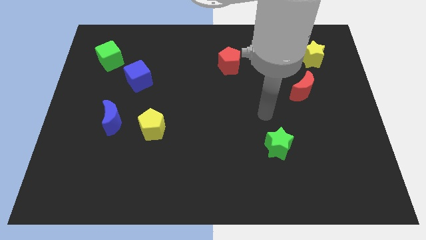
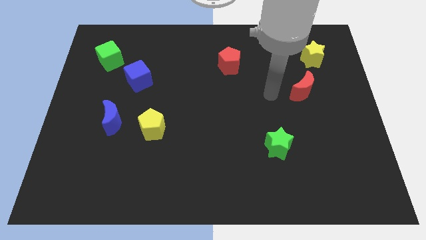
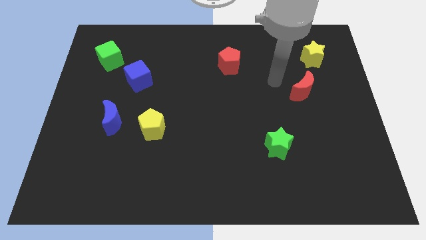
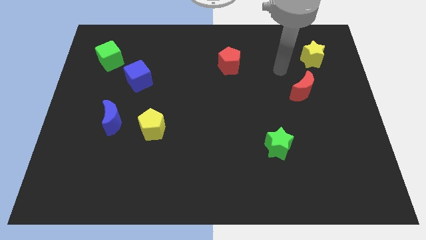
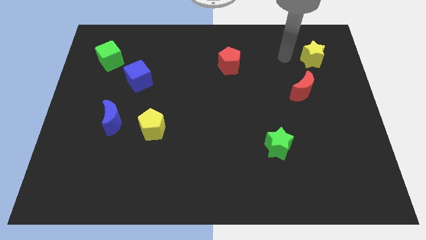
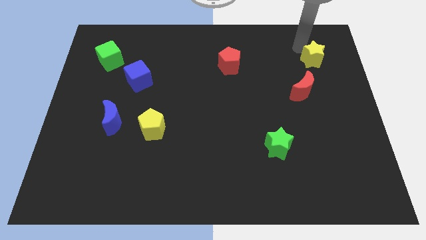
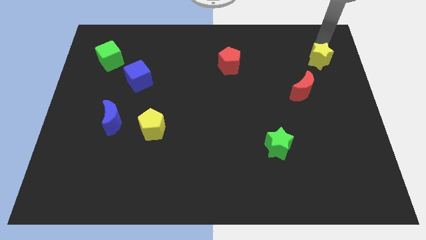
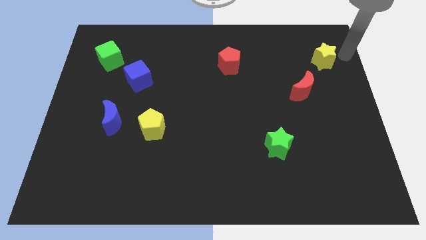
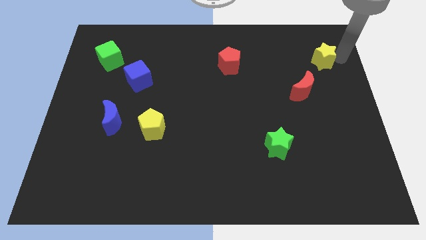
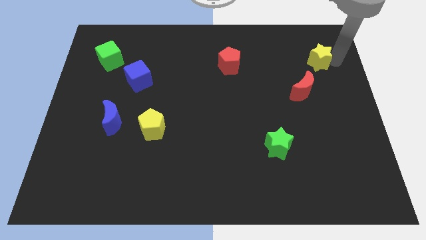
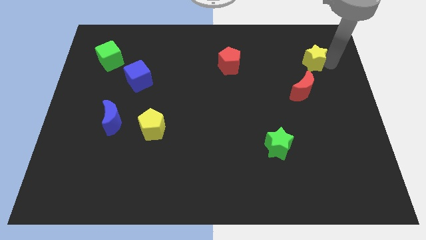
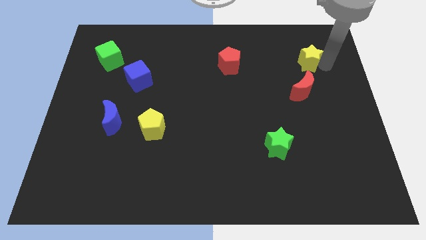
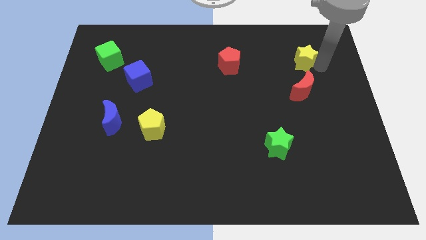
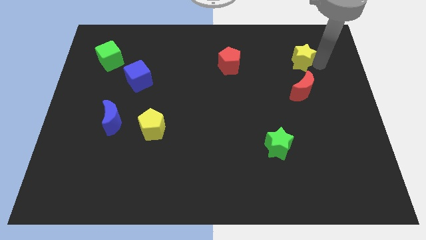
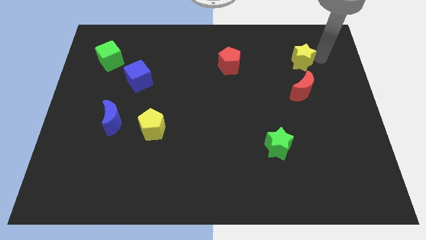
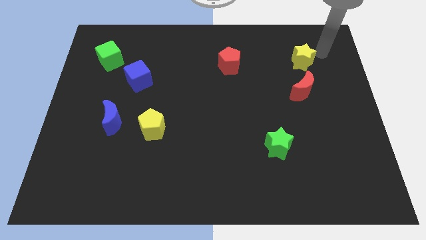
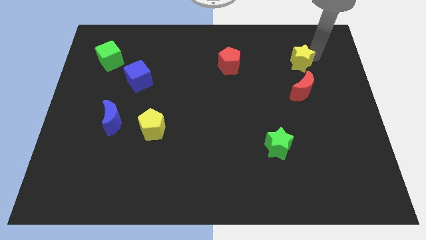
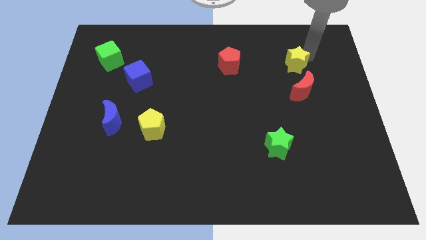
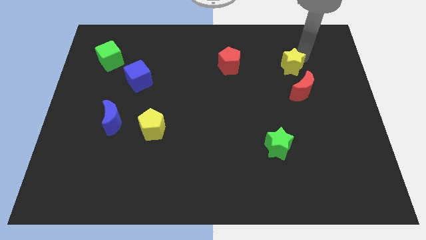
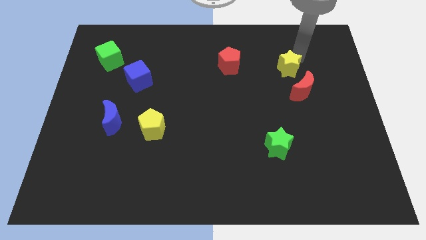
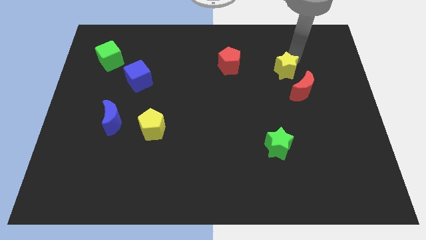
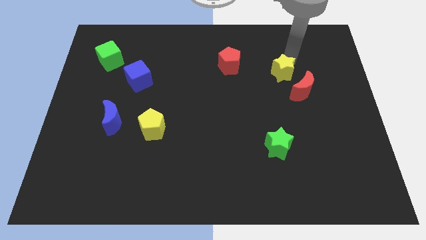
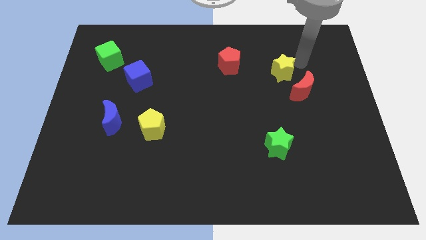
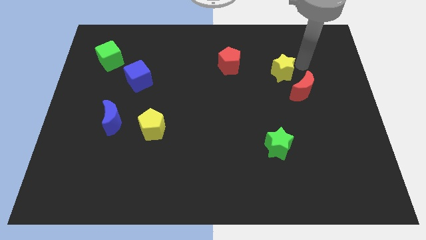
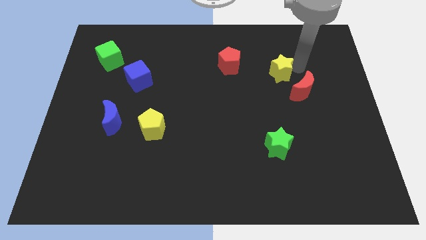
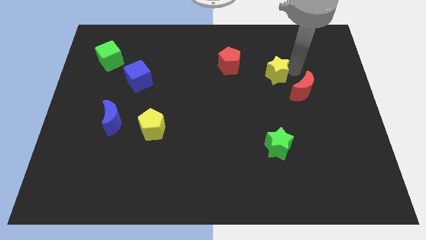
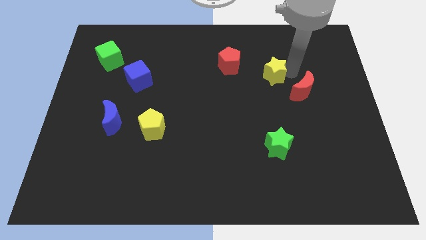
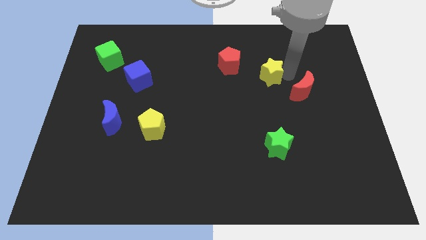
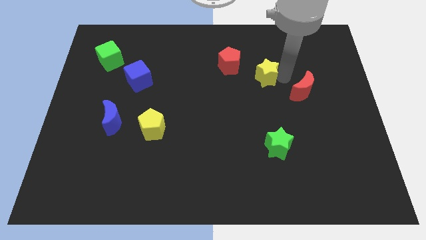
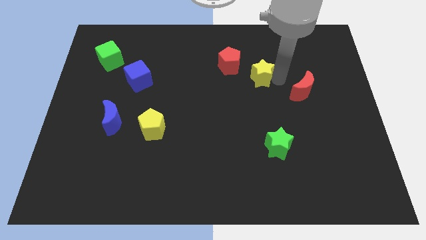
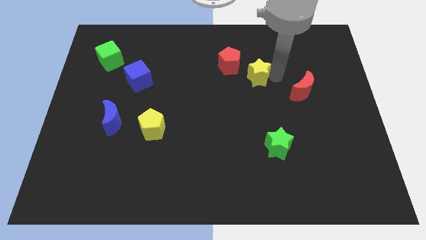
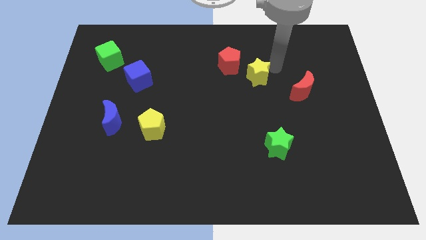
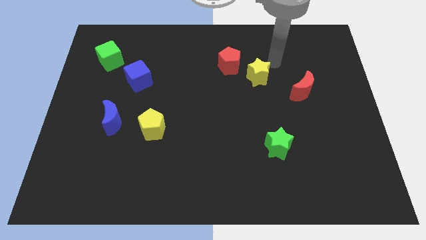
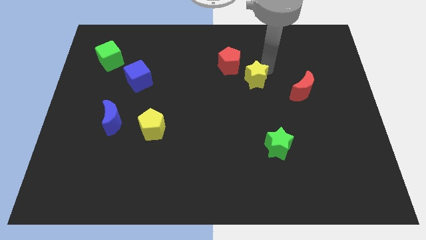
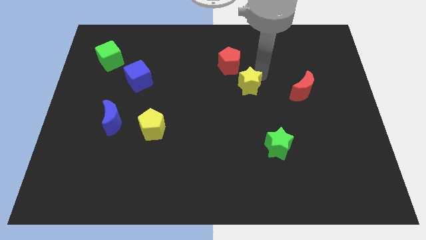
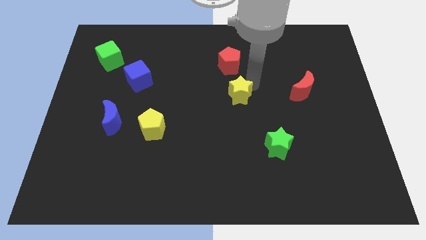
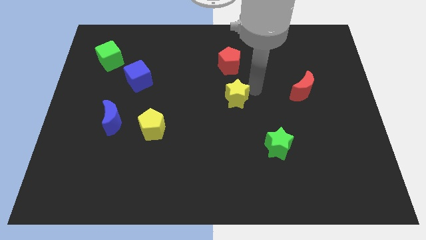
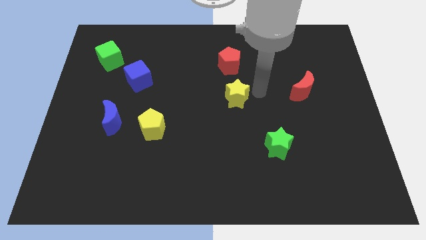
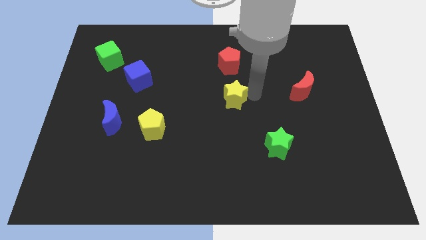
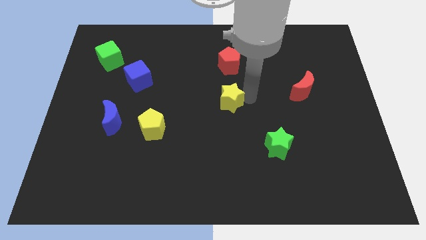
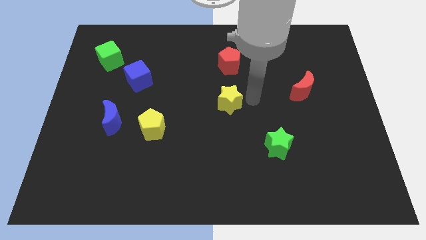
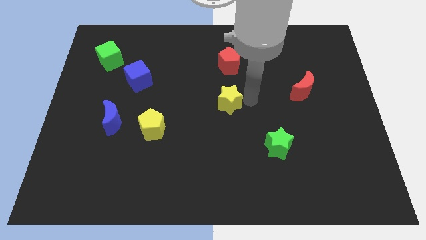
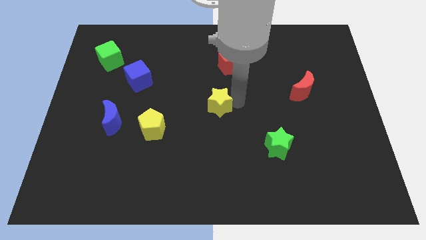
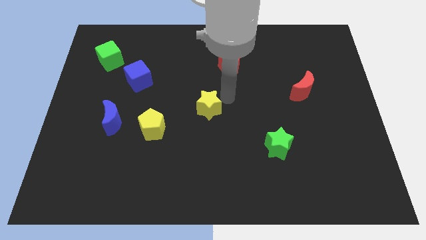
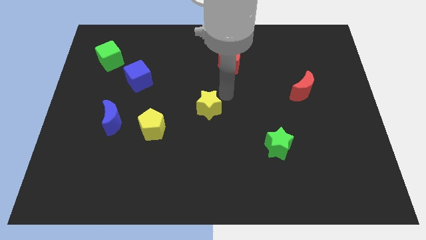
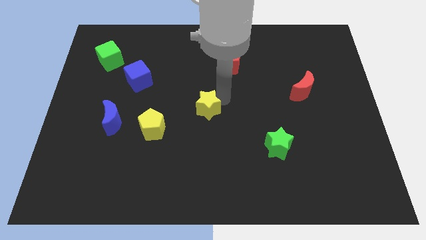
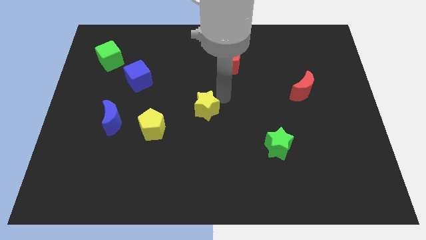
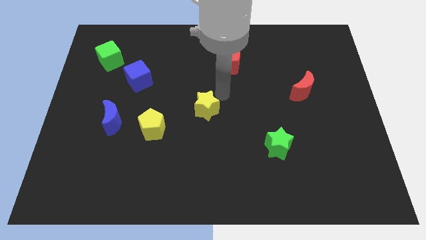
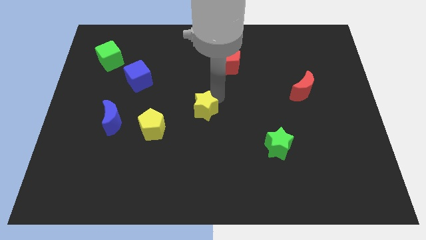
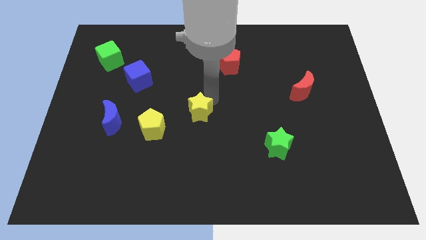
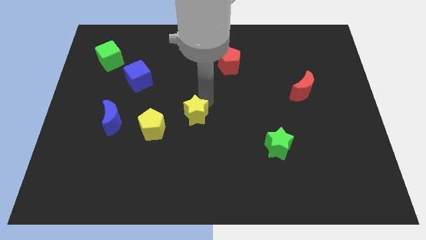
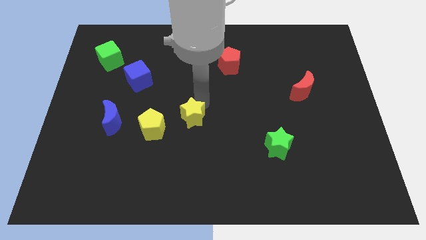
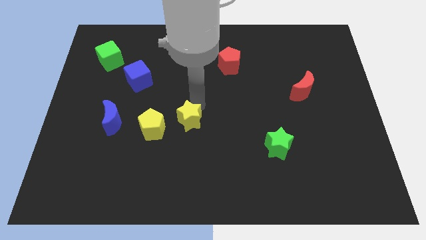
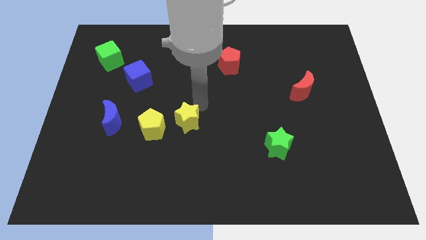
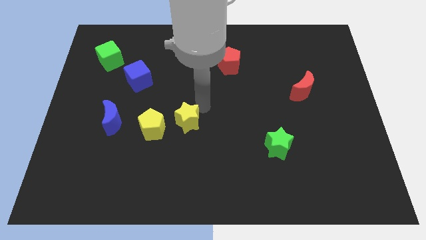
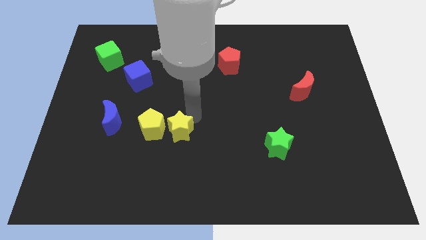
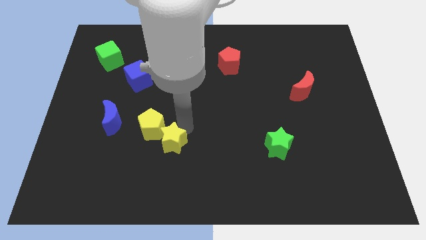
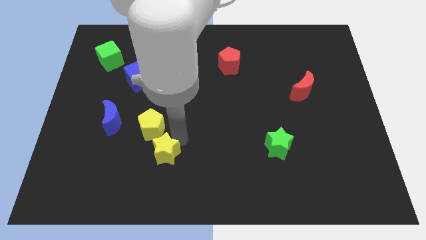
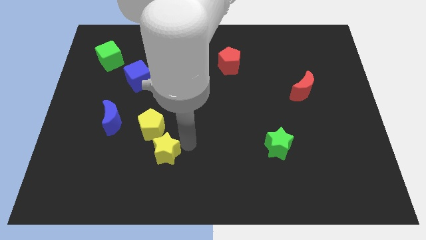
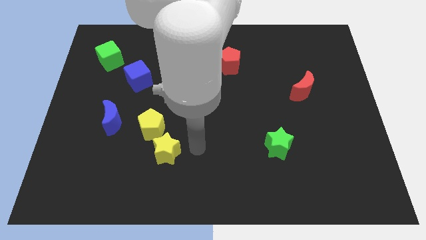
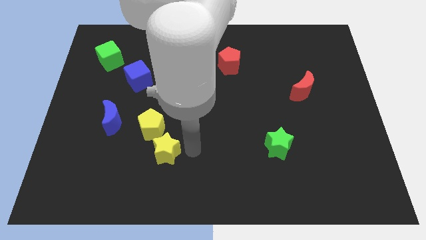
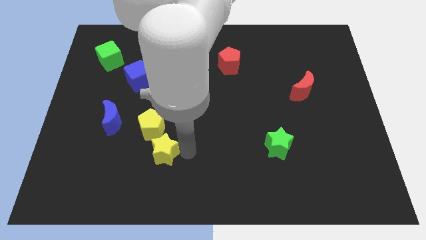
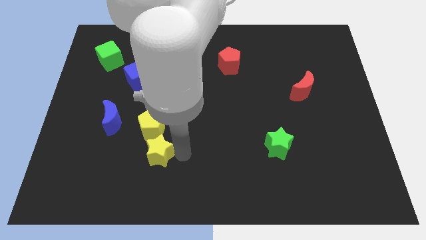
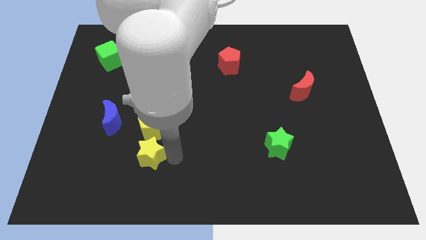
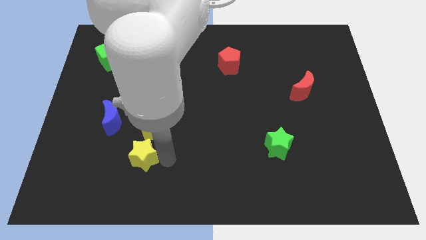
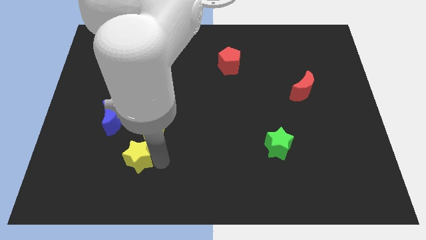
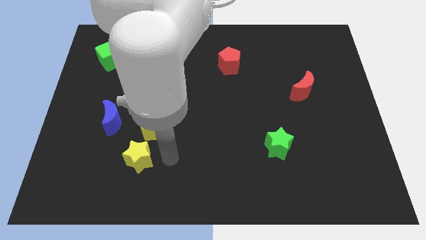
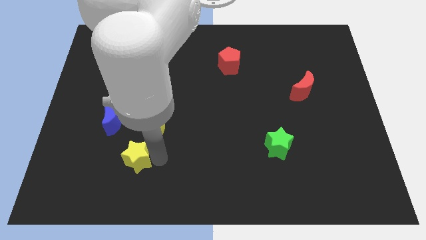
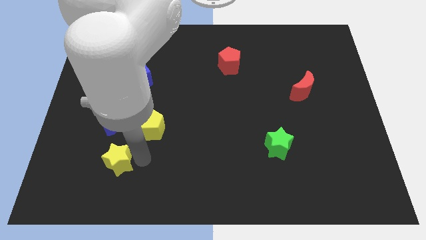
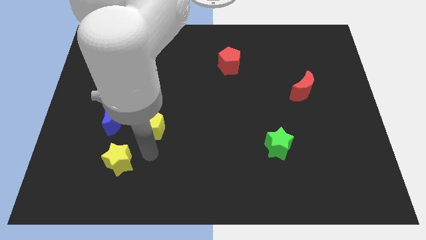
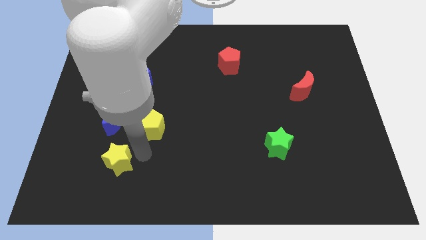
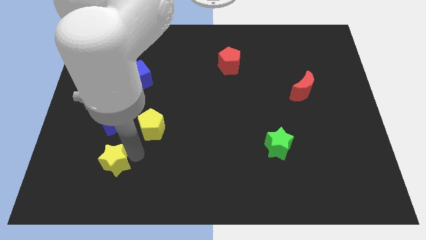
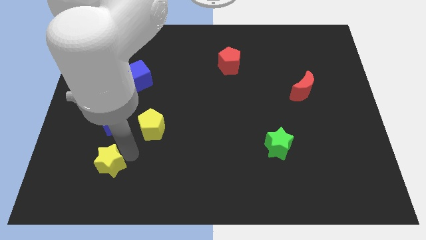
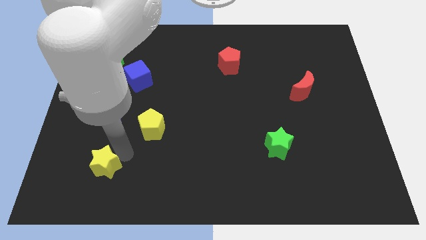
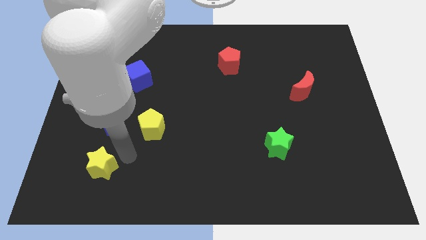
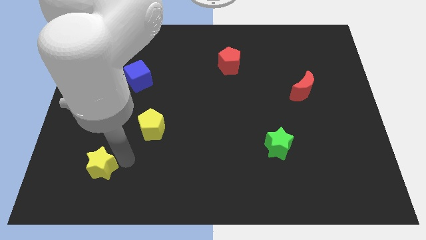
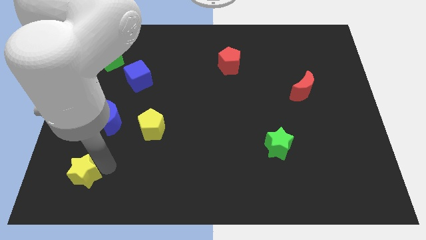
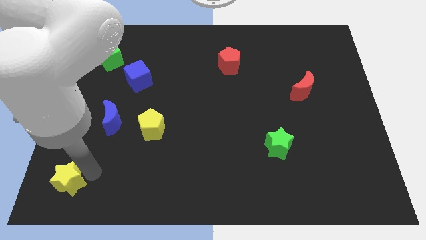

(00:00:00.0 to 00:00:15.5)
put the yellow star to the bottom left
